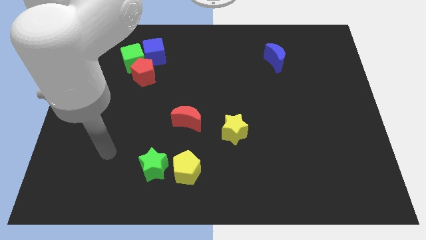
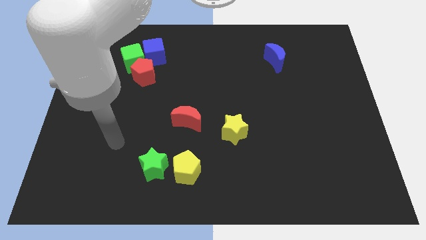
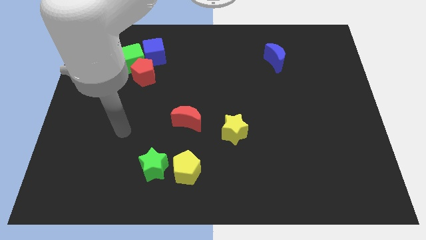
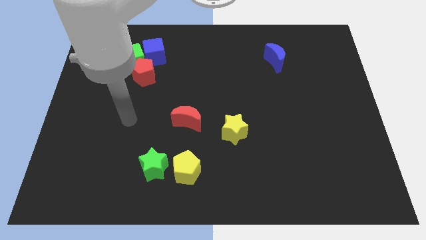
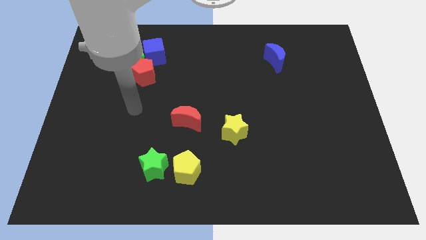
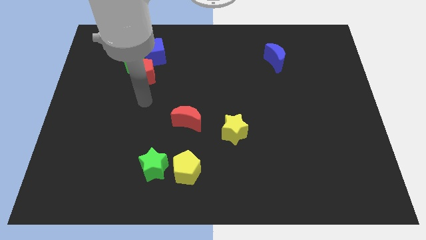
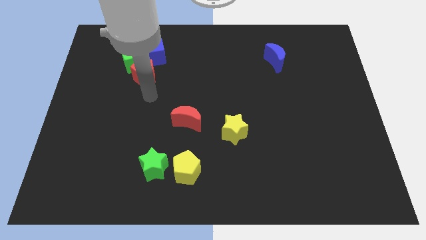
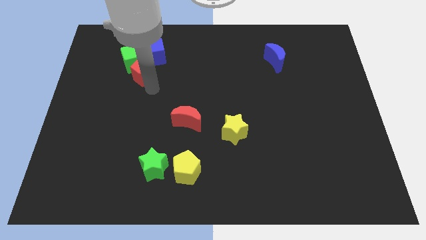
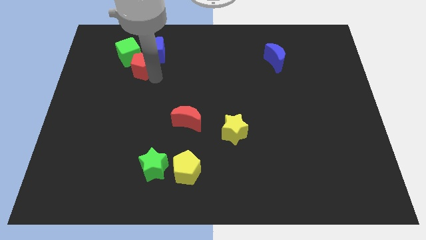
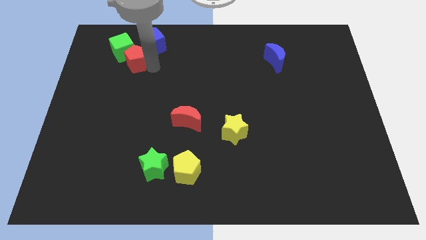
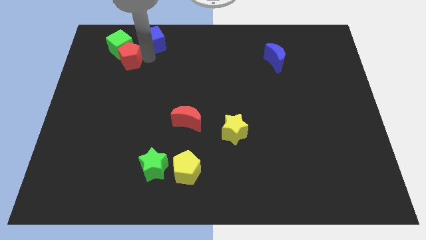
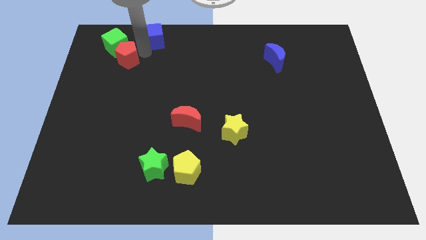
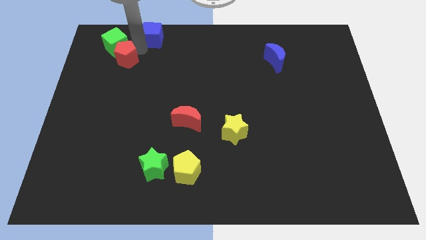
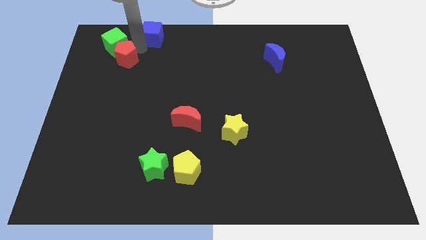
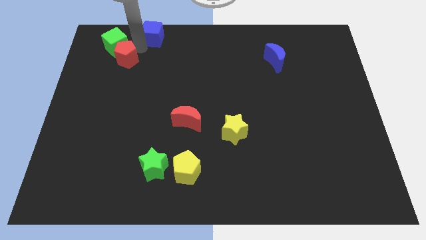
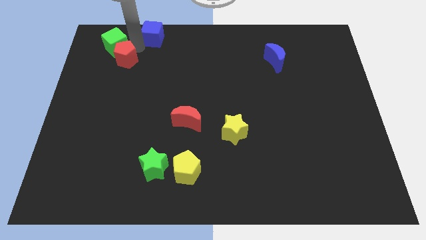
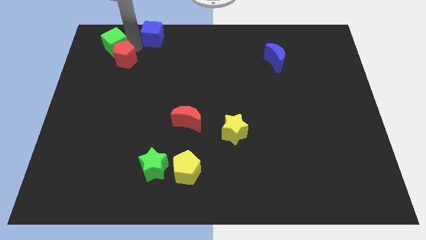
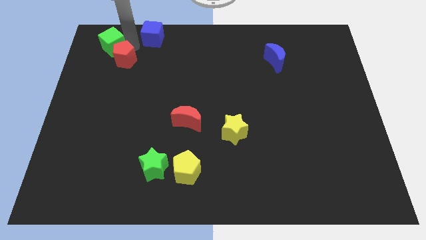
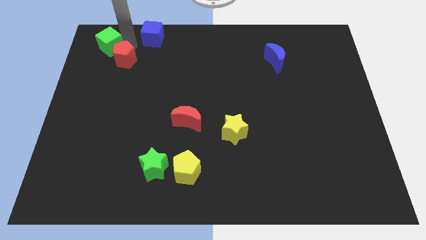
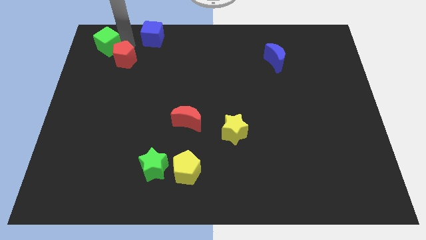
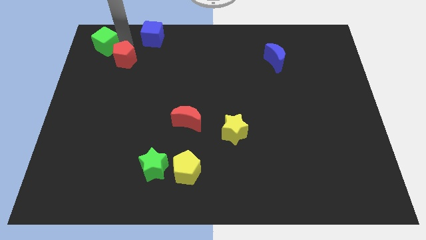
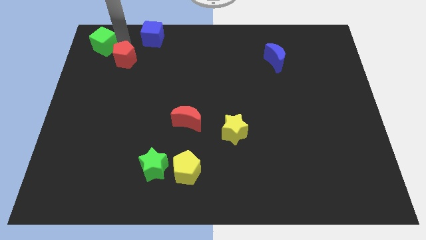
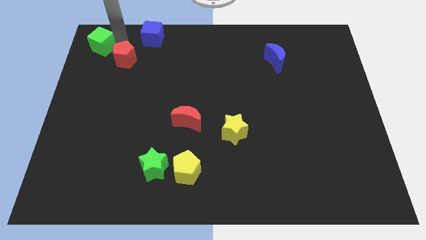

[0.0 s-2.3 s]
separate the green cube from the blue cube and red pentagon

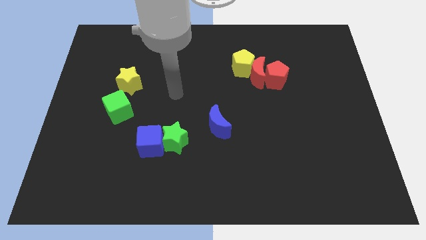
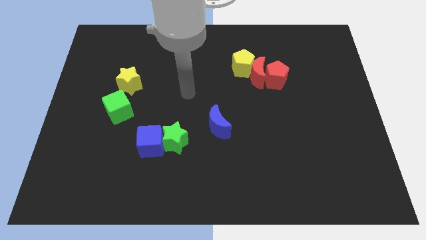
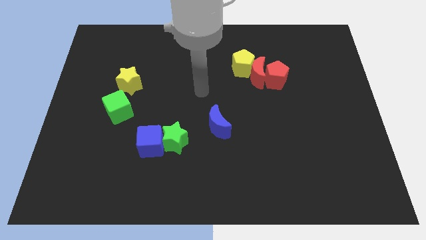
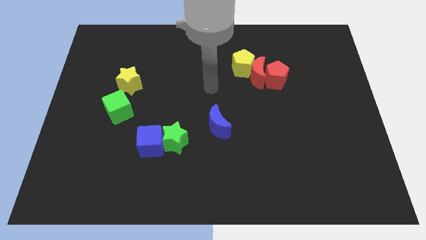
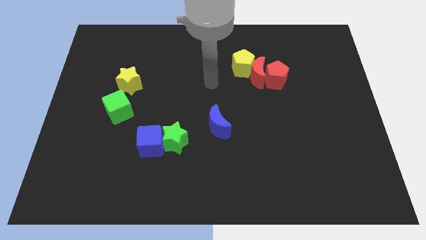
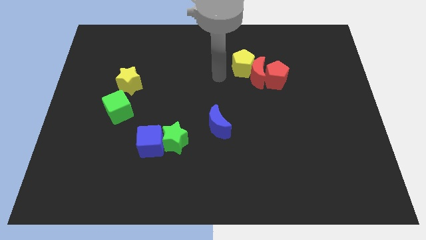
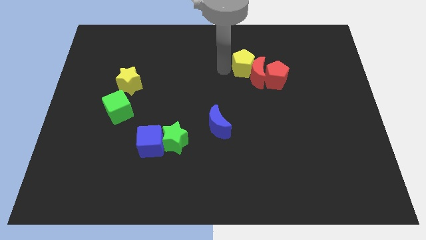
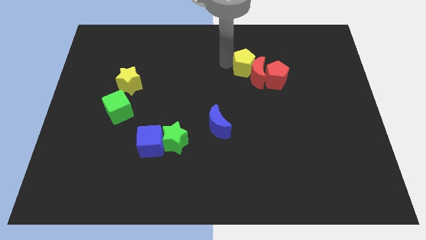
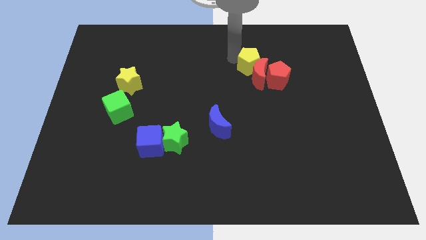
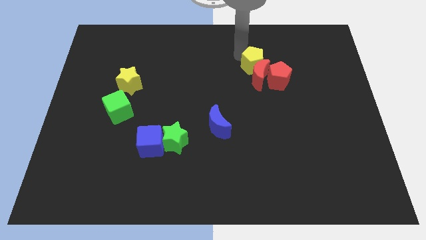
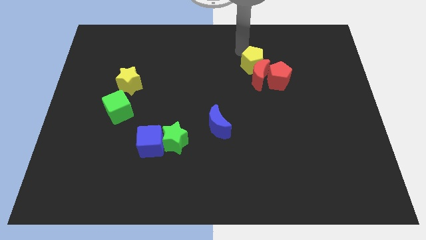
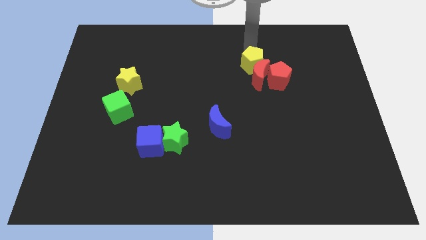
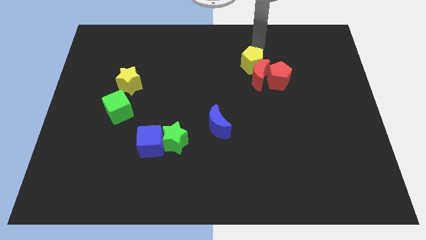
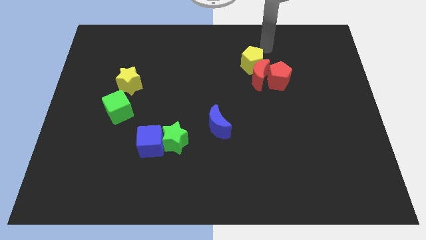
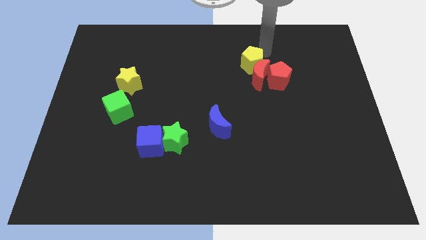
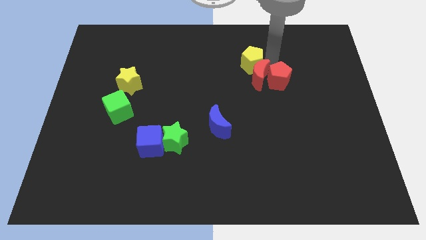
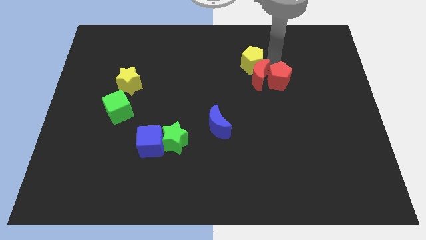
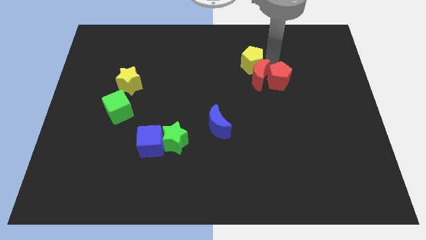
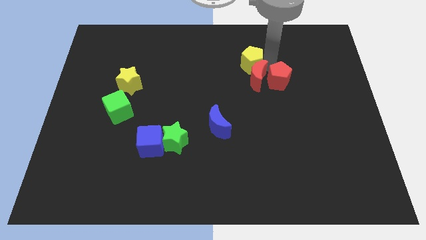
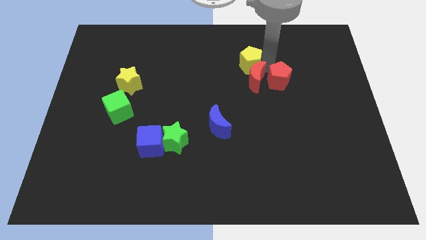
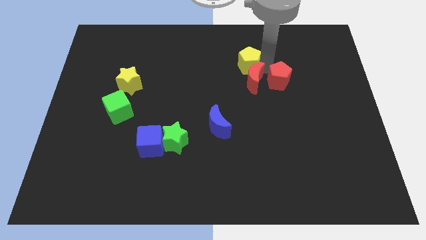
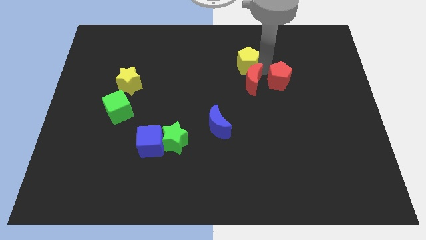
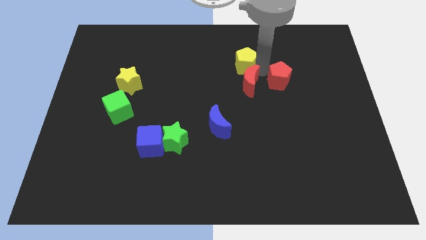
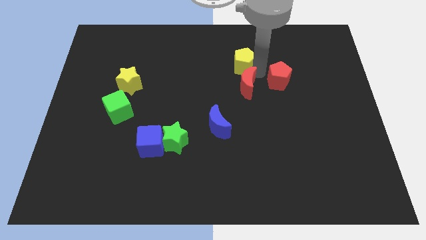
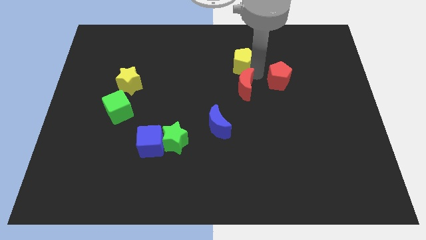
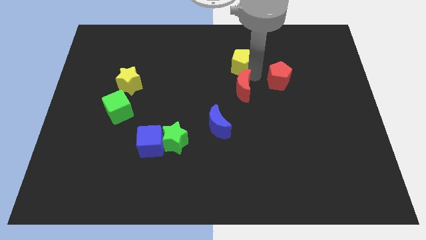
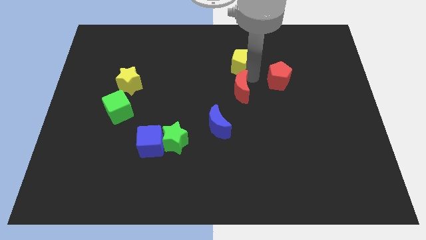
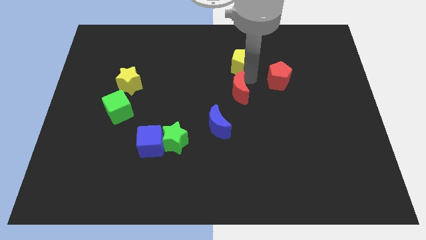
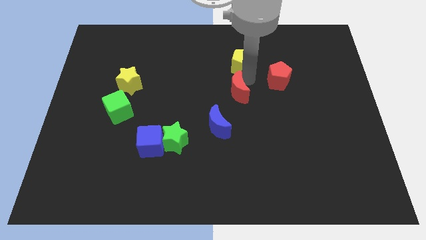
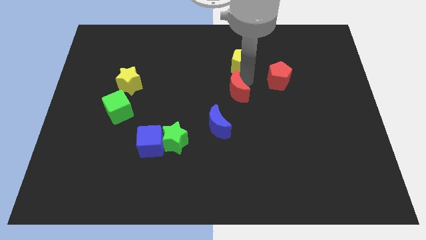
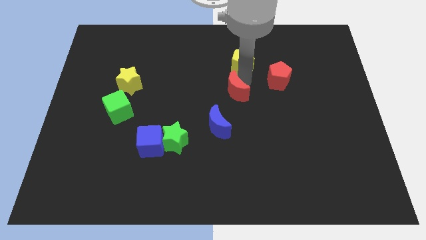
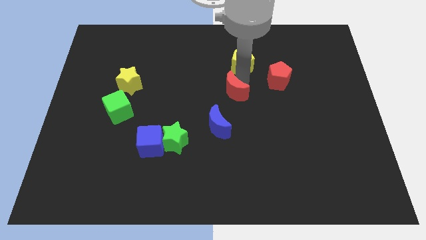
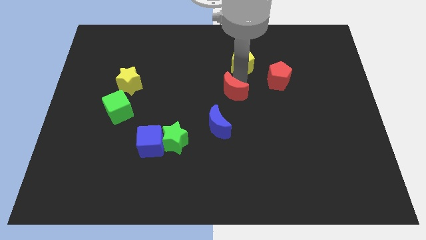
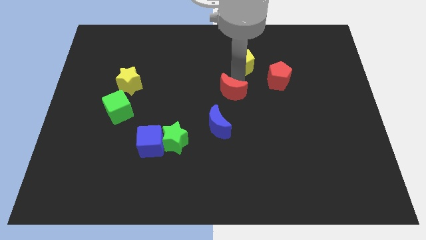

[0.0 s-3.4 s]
separate the red moon from the yellow pentagon and red pentagon

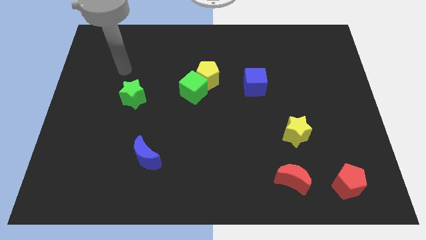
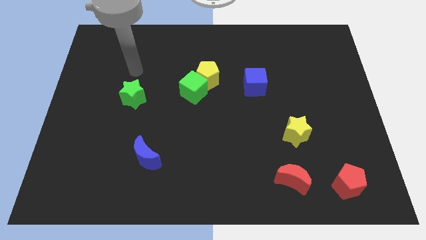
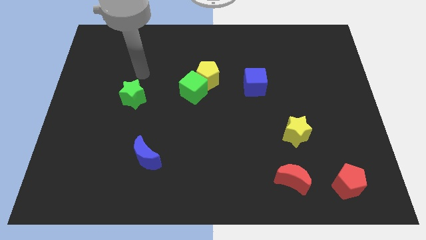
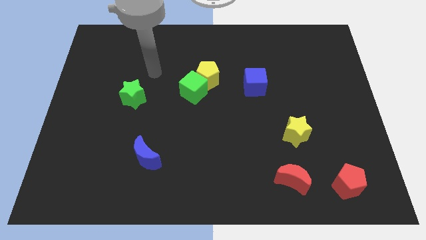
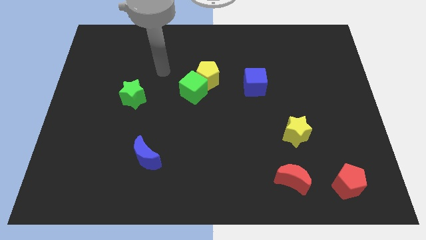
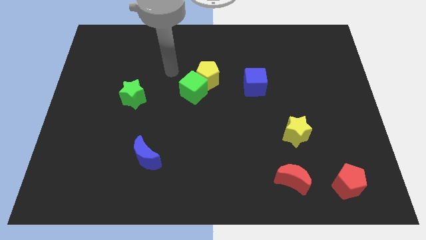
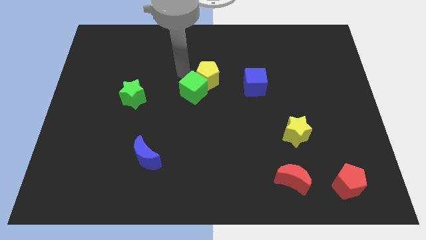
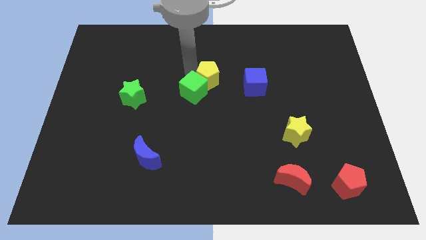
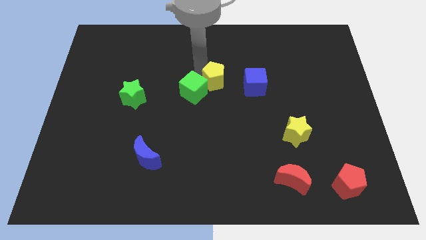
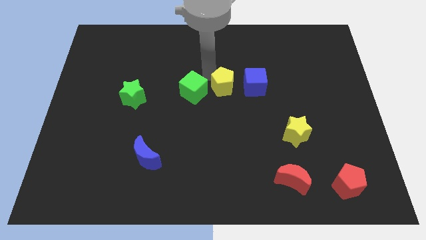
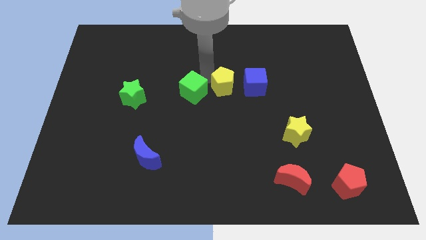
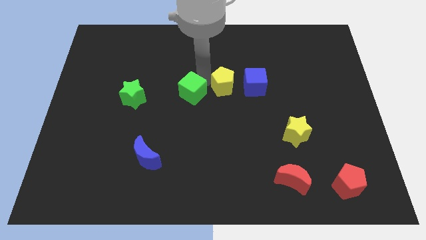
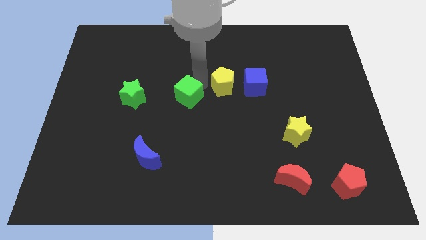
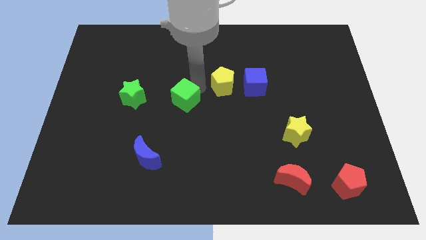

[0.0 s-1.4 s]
move the green cube away from the yellow pentagon

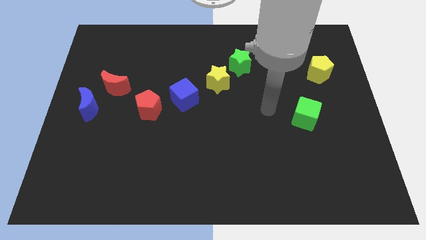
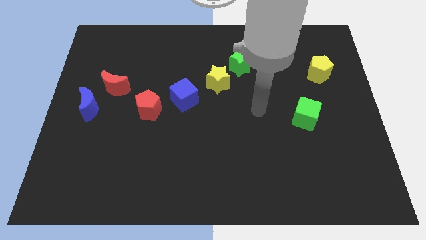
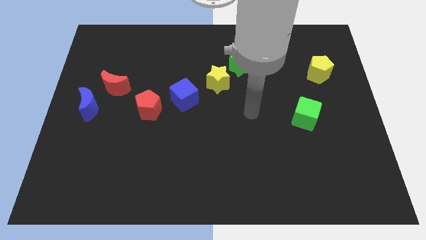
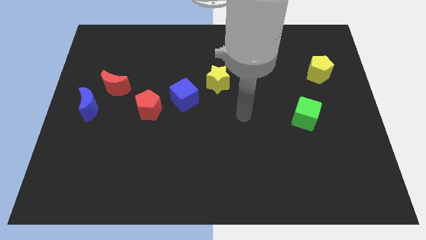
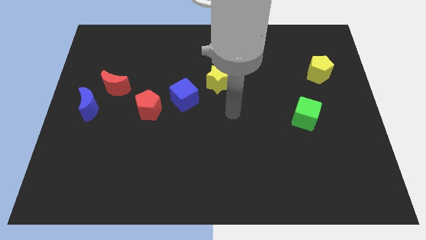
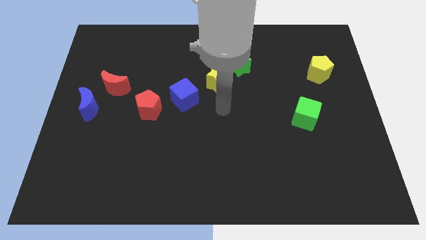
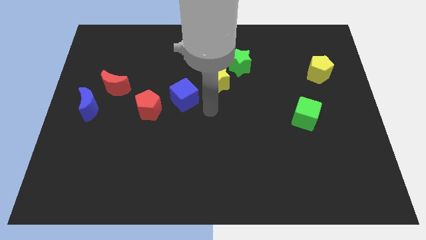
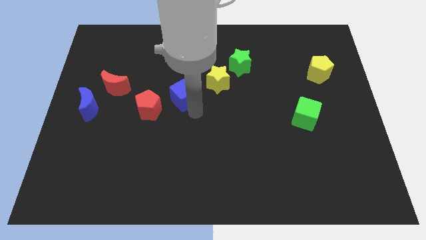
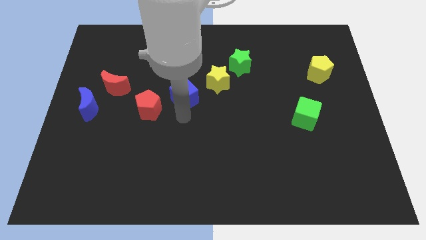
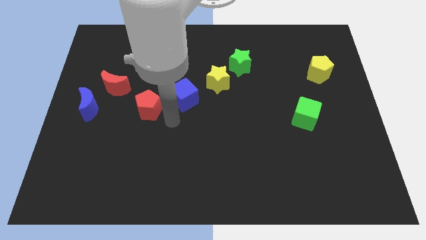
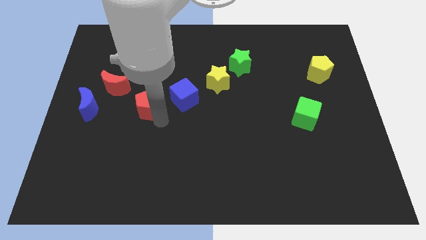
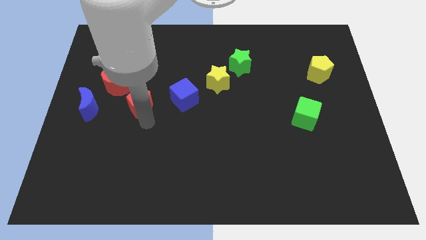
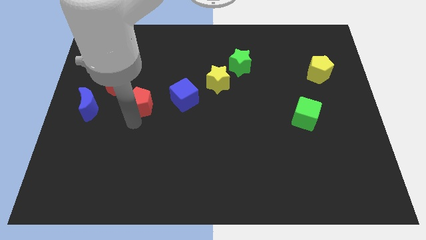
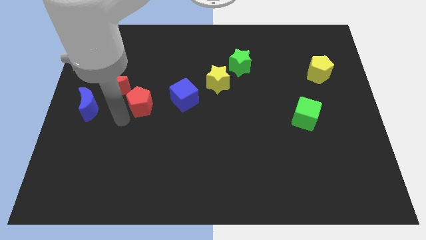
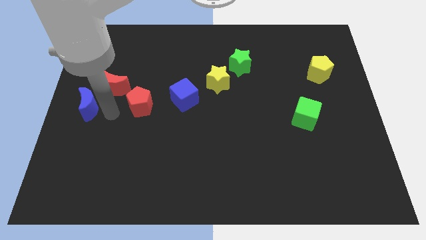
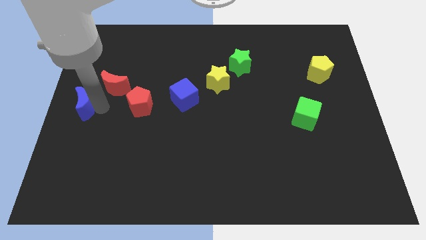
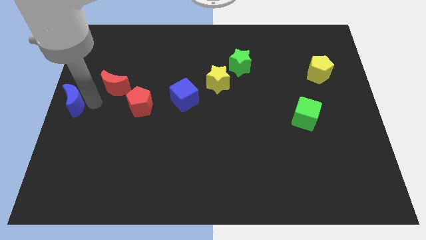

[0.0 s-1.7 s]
move the red moon away from the blue moon

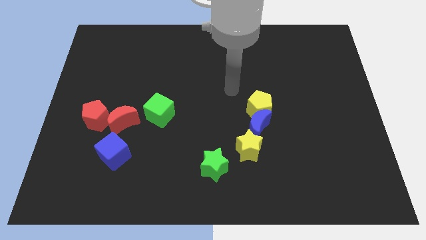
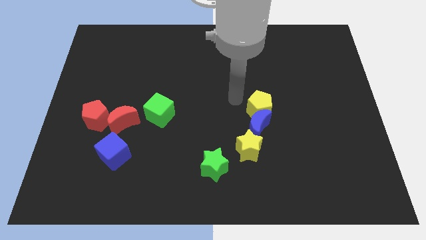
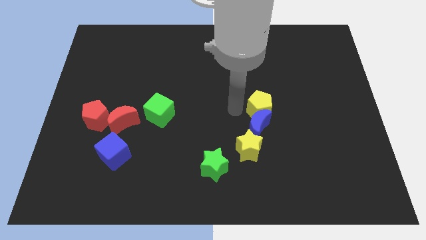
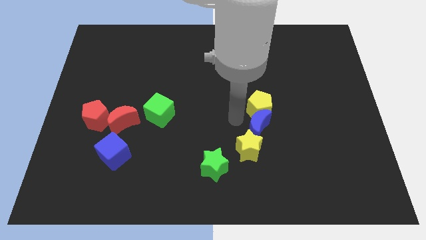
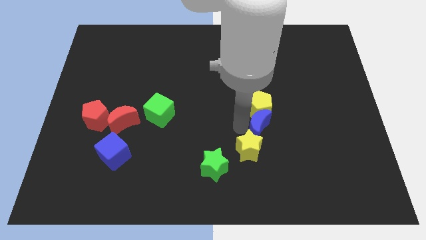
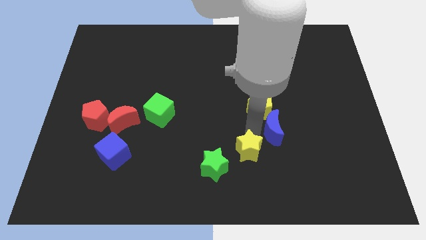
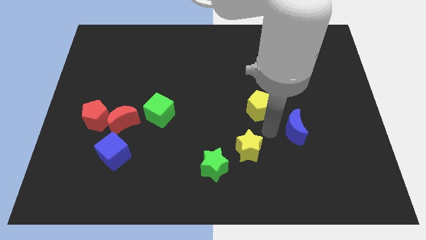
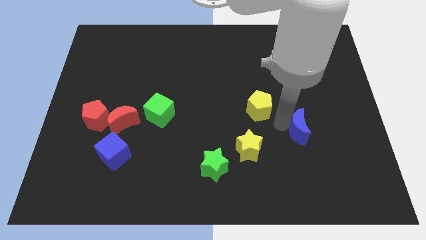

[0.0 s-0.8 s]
separate the yellow pentagon from the blue moon
